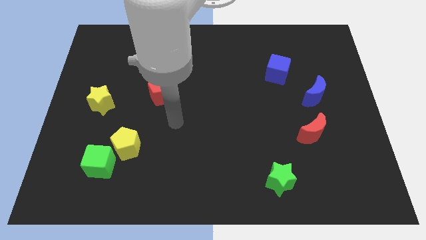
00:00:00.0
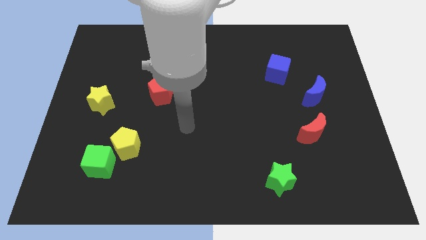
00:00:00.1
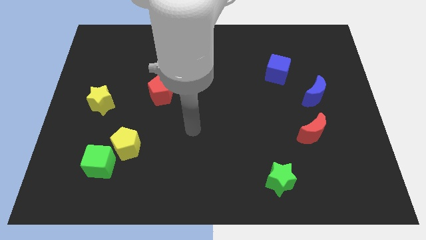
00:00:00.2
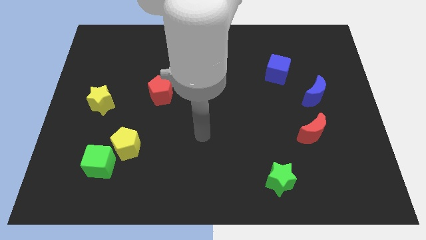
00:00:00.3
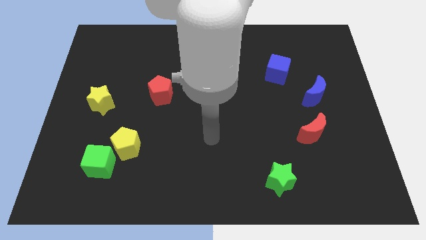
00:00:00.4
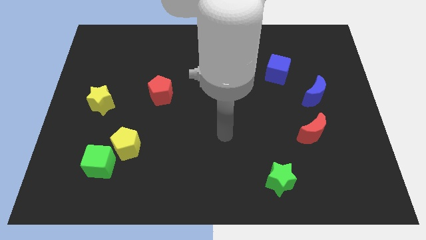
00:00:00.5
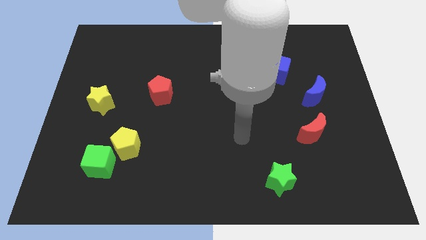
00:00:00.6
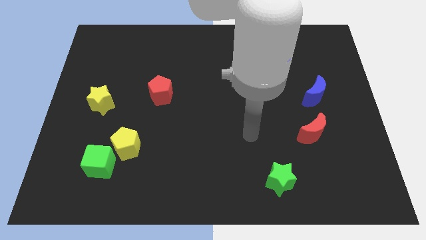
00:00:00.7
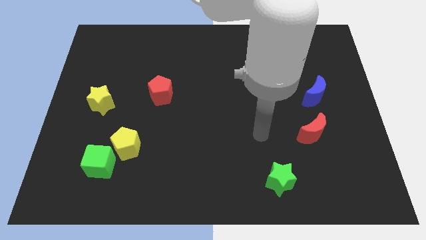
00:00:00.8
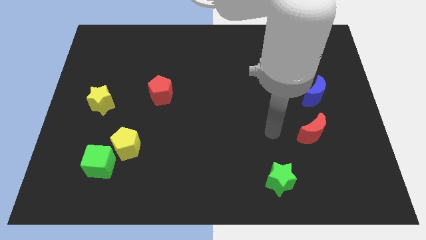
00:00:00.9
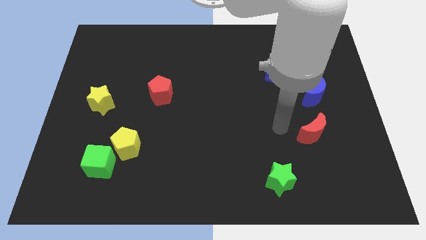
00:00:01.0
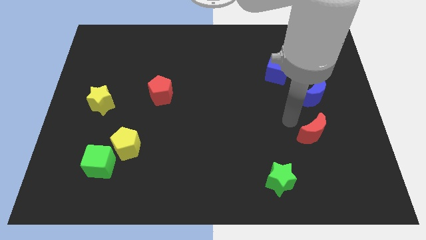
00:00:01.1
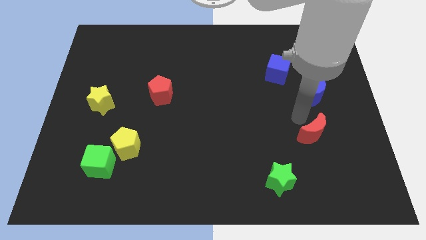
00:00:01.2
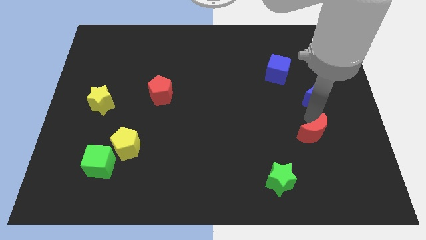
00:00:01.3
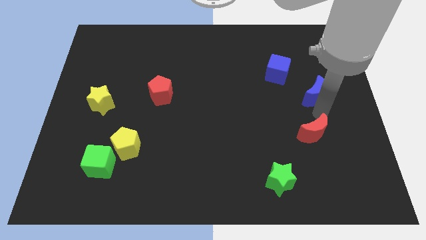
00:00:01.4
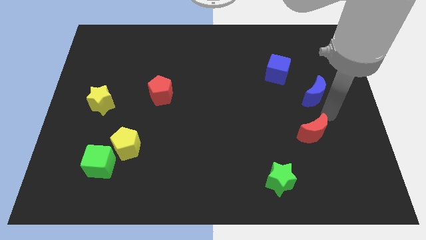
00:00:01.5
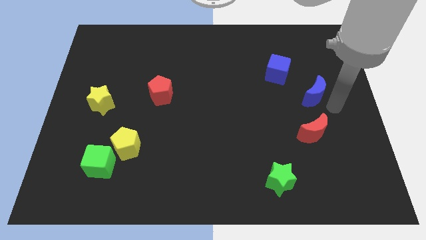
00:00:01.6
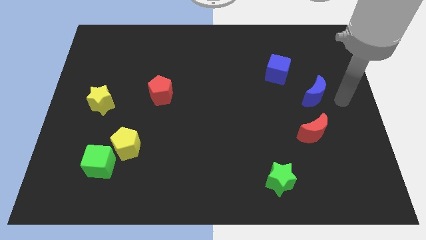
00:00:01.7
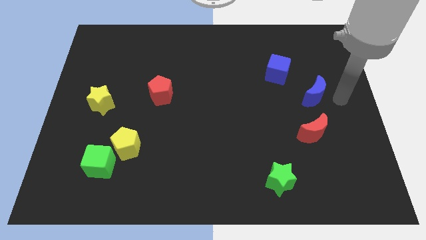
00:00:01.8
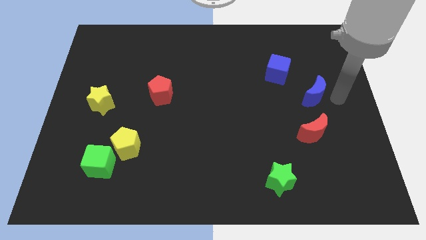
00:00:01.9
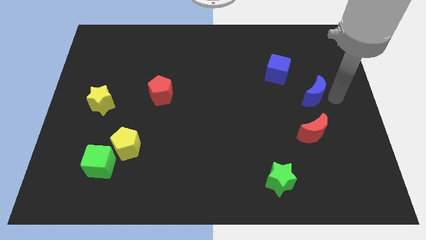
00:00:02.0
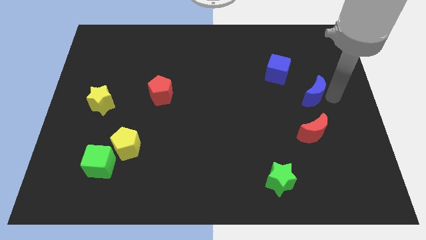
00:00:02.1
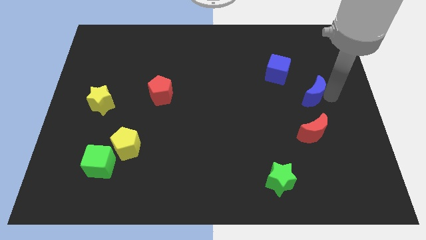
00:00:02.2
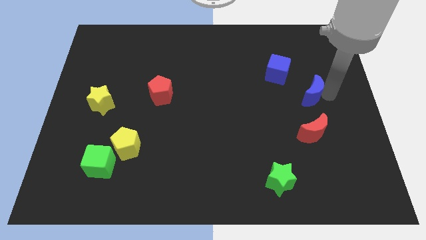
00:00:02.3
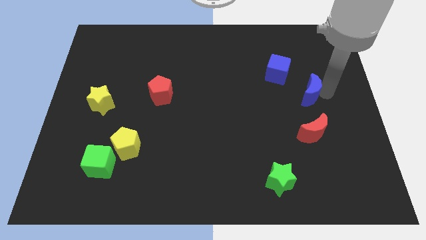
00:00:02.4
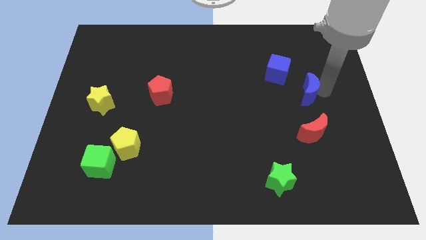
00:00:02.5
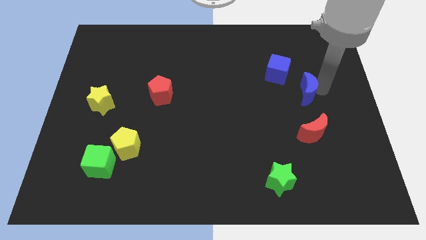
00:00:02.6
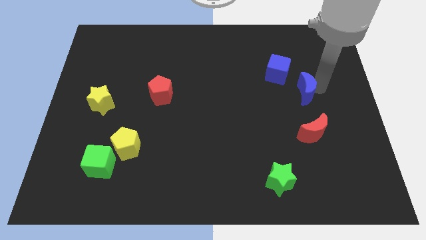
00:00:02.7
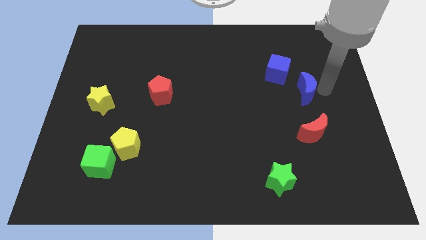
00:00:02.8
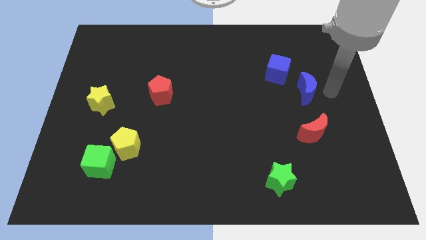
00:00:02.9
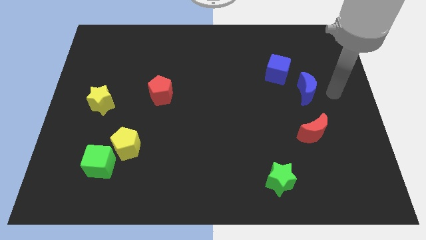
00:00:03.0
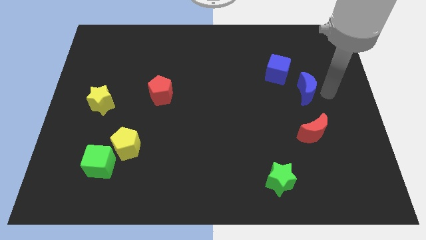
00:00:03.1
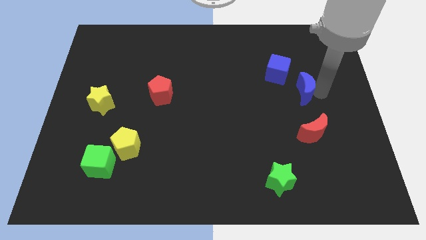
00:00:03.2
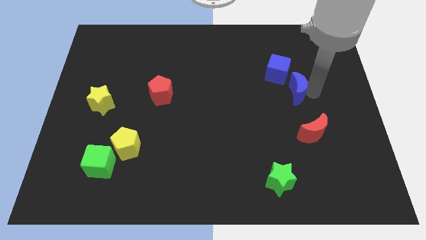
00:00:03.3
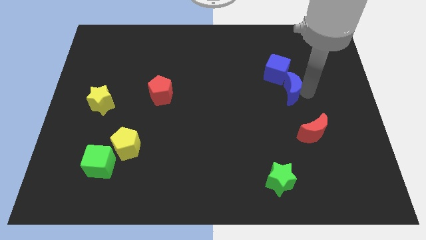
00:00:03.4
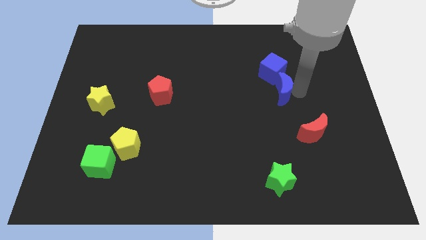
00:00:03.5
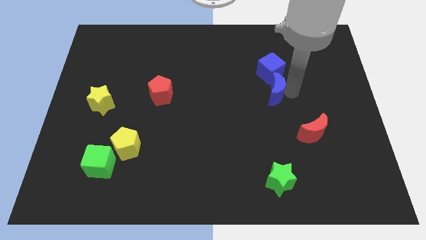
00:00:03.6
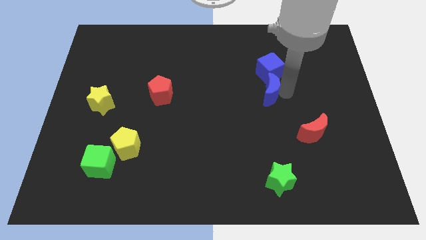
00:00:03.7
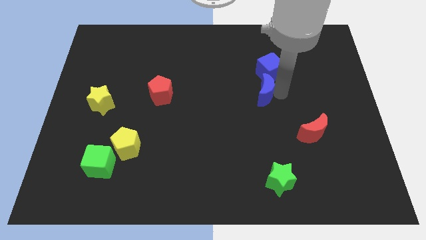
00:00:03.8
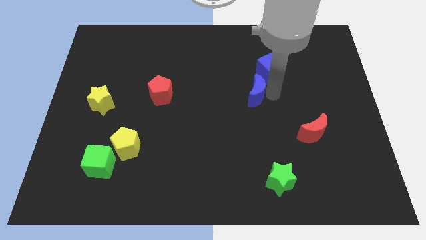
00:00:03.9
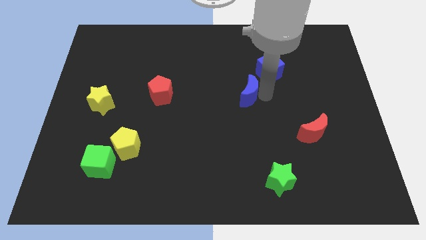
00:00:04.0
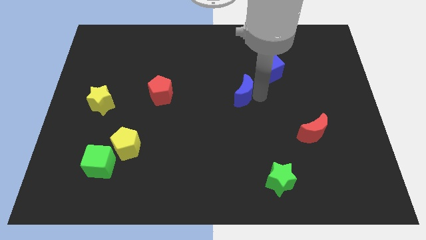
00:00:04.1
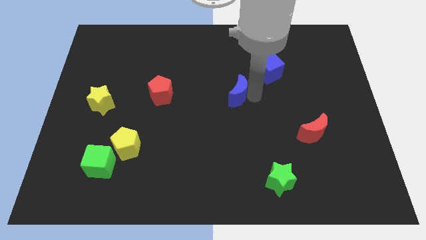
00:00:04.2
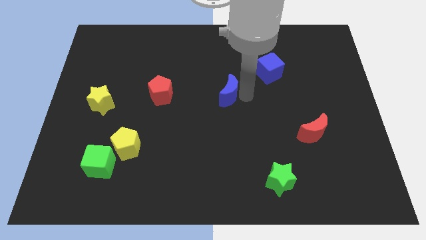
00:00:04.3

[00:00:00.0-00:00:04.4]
slide the blue moon left

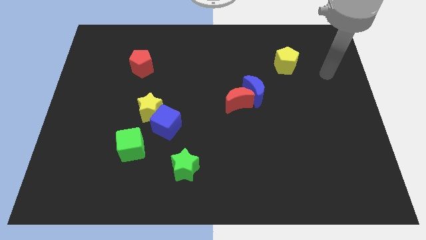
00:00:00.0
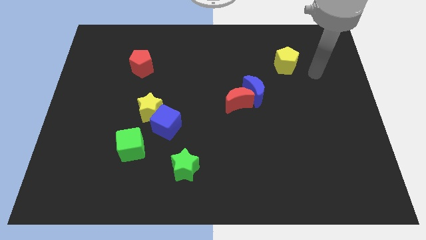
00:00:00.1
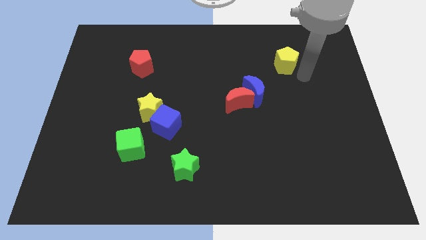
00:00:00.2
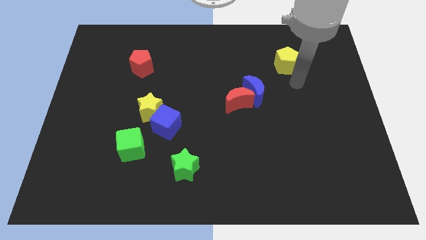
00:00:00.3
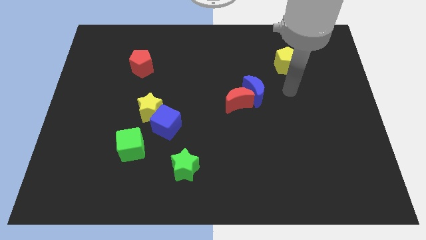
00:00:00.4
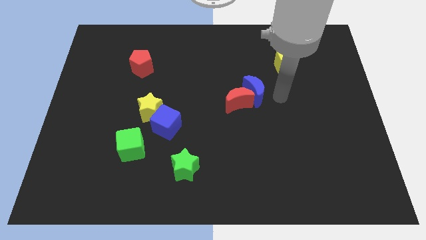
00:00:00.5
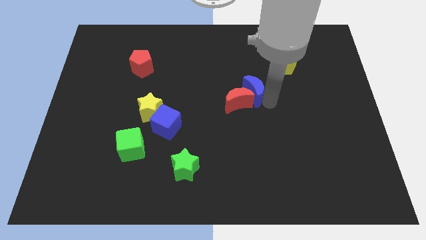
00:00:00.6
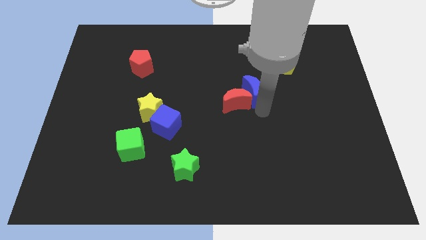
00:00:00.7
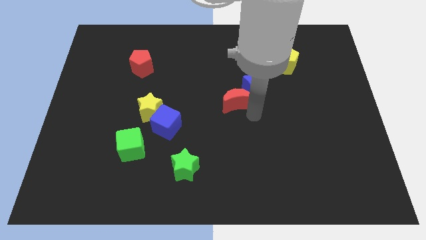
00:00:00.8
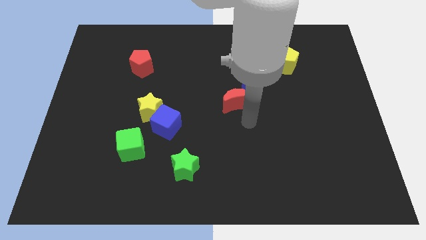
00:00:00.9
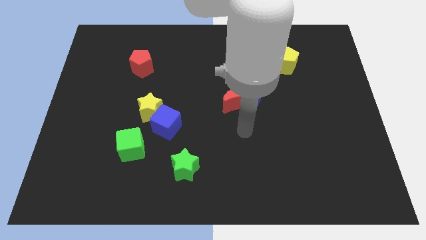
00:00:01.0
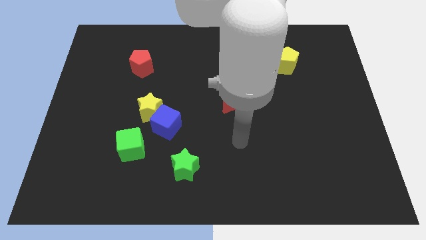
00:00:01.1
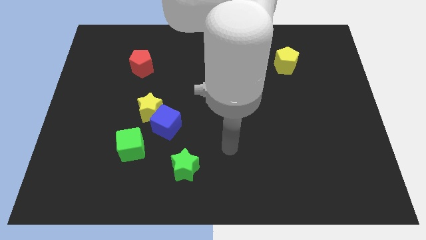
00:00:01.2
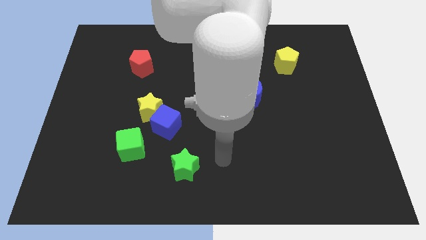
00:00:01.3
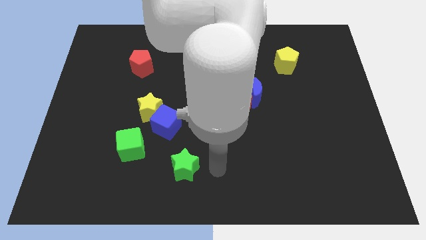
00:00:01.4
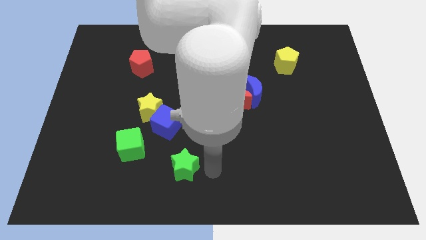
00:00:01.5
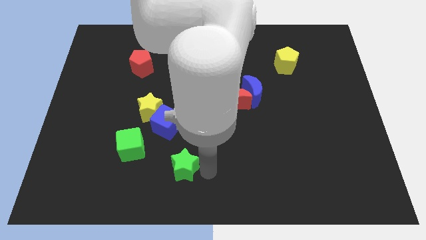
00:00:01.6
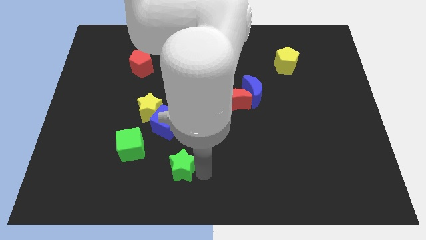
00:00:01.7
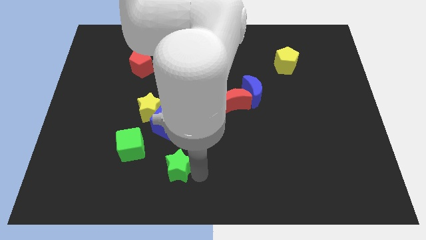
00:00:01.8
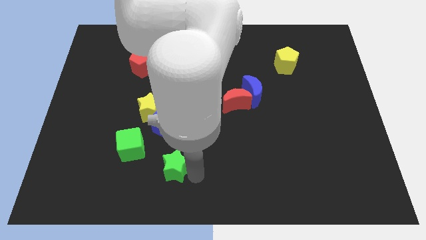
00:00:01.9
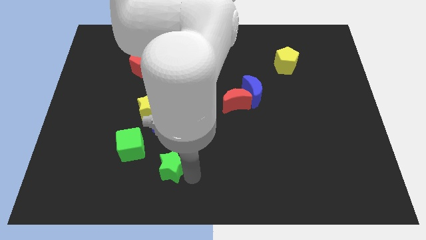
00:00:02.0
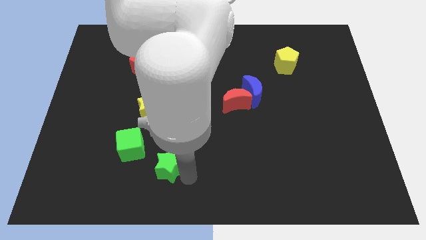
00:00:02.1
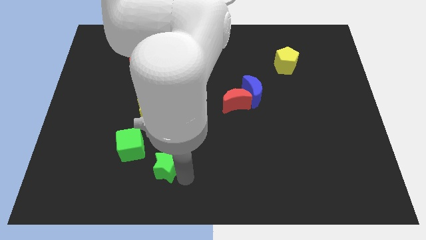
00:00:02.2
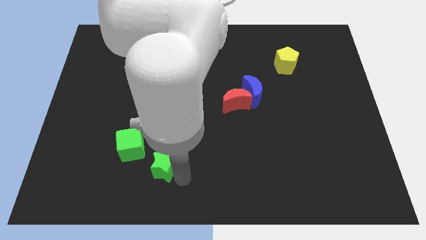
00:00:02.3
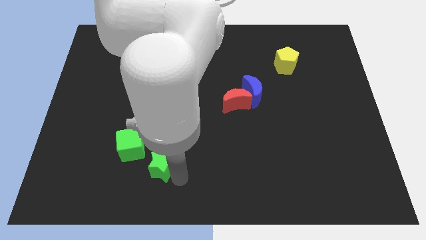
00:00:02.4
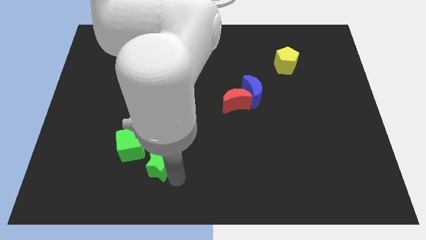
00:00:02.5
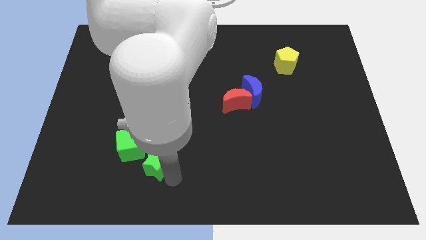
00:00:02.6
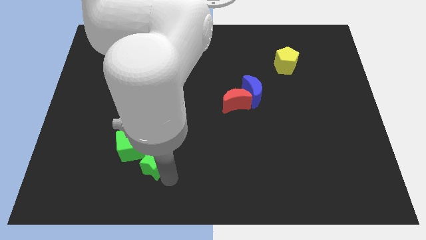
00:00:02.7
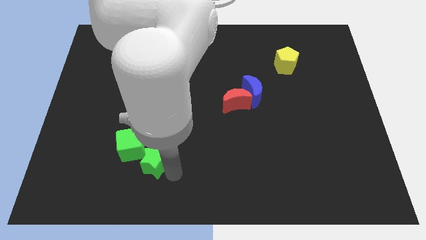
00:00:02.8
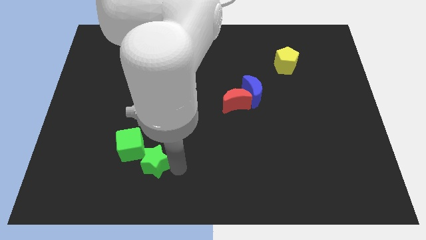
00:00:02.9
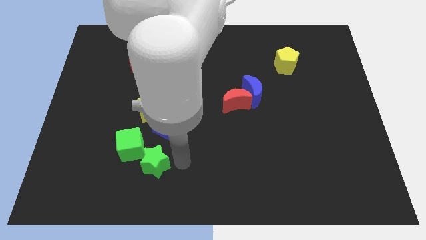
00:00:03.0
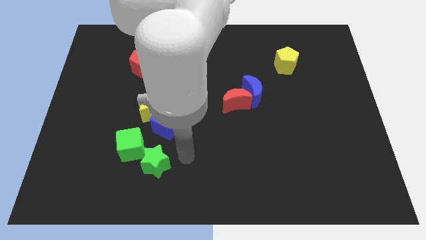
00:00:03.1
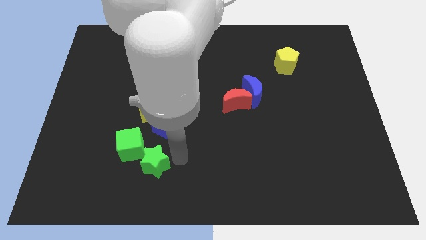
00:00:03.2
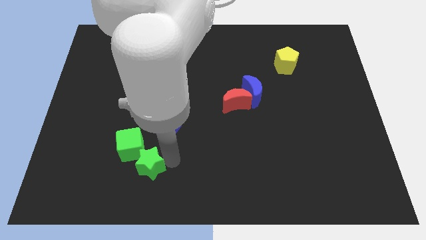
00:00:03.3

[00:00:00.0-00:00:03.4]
move the green star a bit to the left

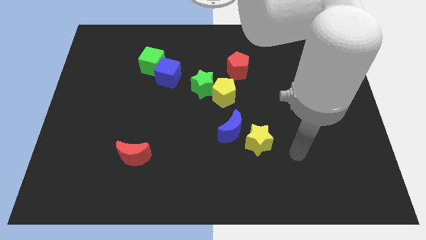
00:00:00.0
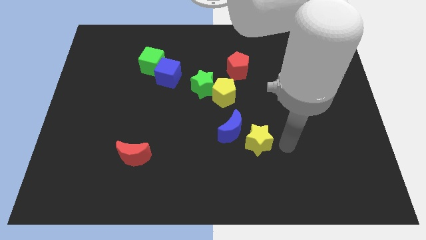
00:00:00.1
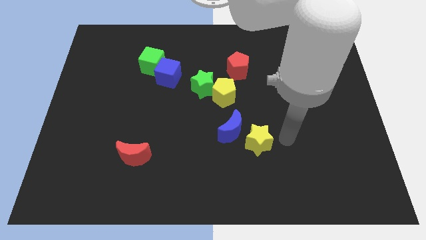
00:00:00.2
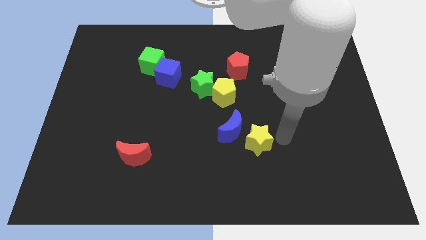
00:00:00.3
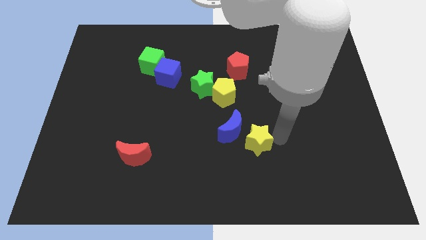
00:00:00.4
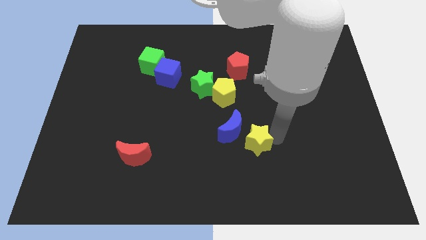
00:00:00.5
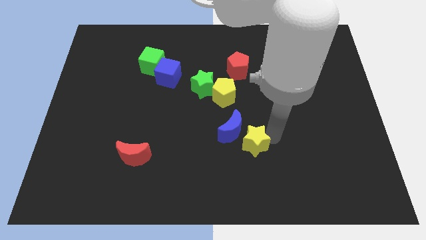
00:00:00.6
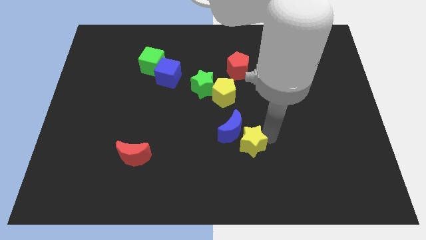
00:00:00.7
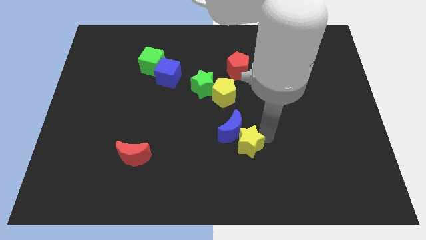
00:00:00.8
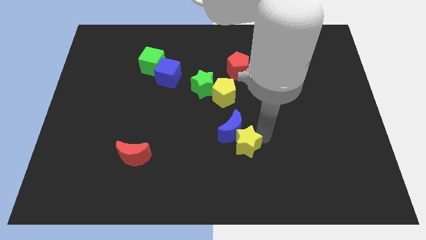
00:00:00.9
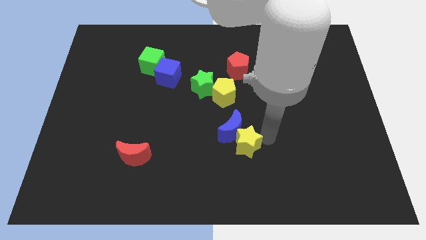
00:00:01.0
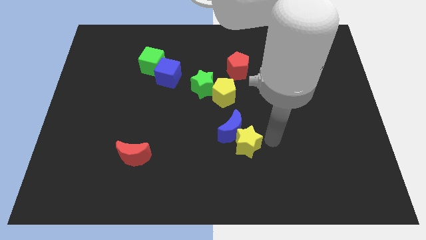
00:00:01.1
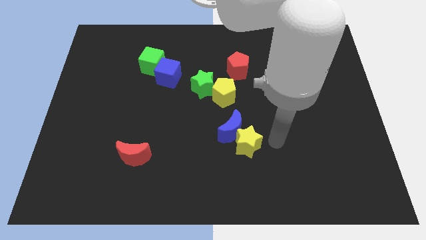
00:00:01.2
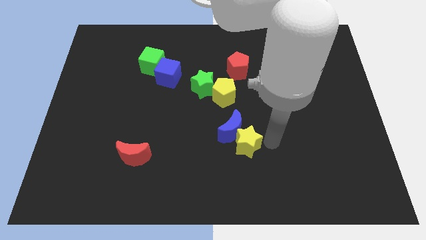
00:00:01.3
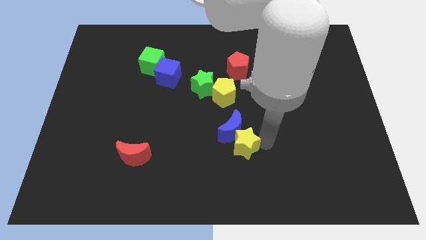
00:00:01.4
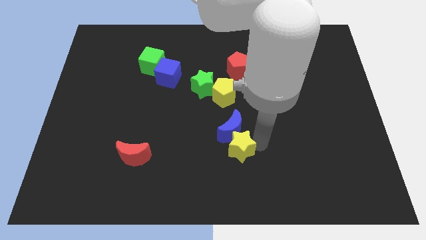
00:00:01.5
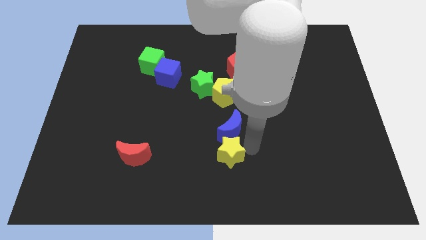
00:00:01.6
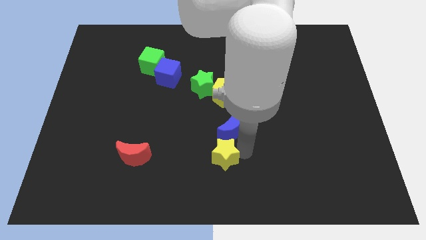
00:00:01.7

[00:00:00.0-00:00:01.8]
move the yellow star to the left somewhat
